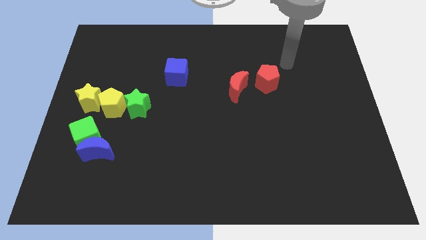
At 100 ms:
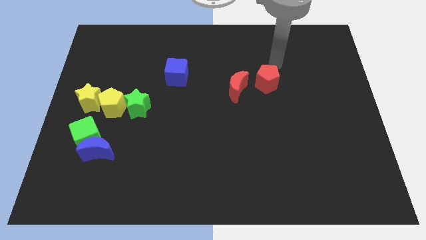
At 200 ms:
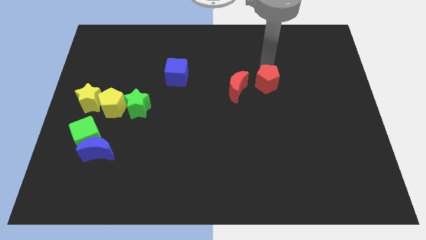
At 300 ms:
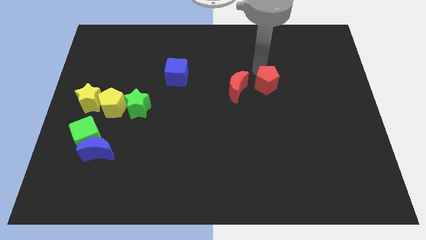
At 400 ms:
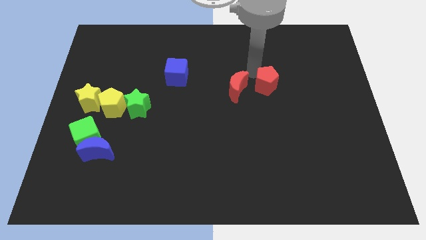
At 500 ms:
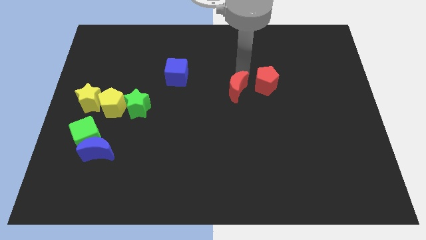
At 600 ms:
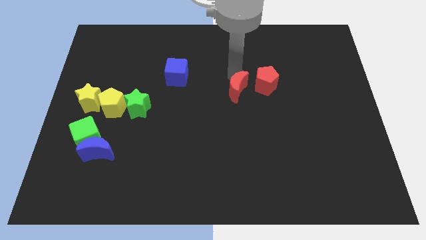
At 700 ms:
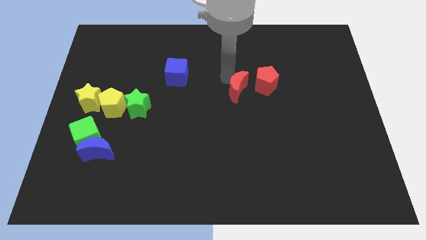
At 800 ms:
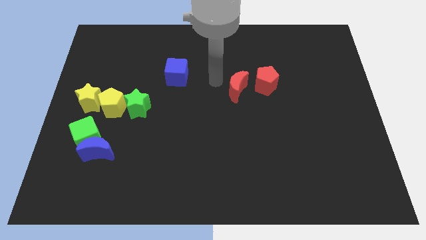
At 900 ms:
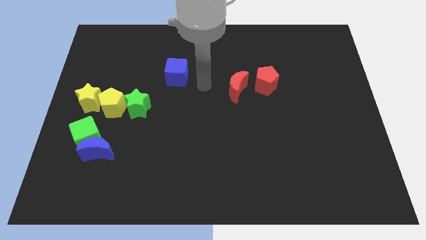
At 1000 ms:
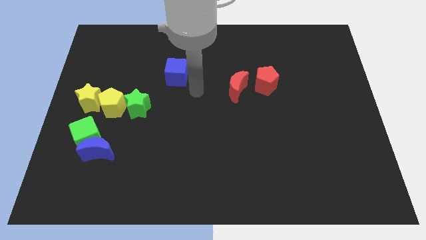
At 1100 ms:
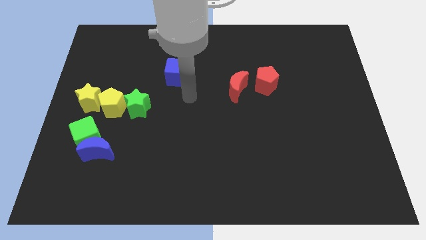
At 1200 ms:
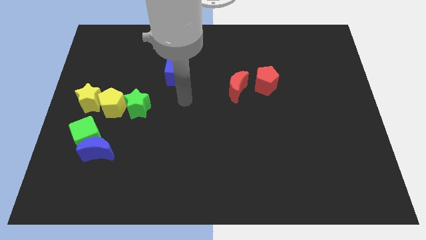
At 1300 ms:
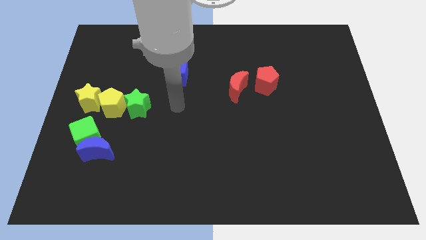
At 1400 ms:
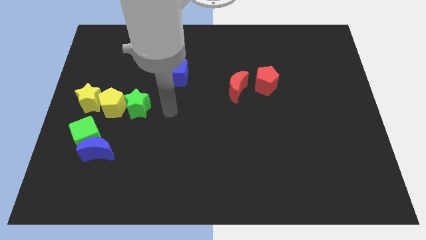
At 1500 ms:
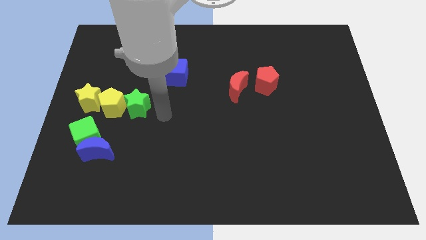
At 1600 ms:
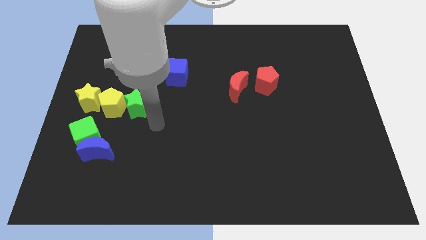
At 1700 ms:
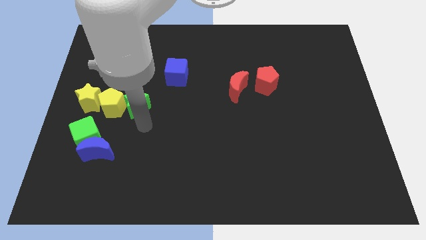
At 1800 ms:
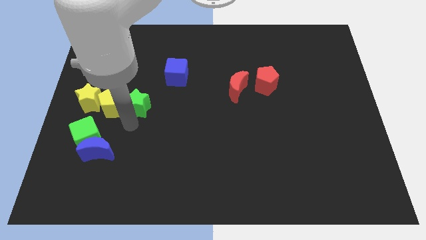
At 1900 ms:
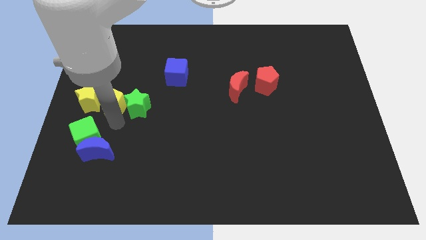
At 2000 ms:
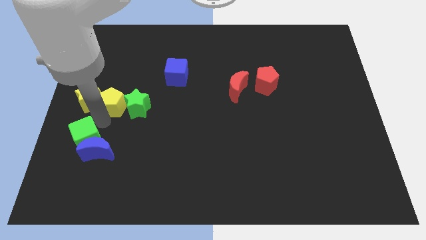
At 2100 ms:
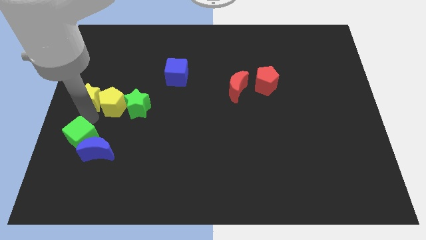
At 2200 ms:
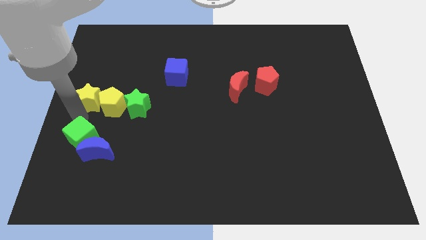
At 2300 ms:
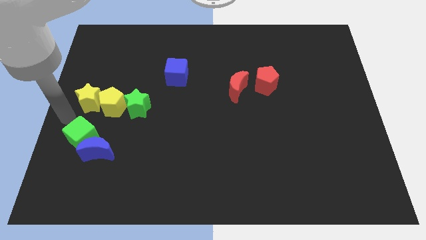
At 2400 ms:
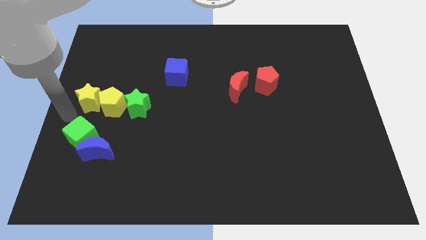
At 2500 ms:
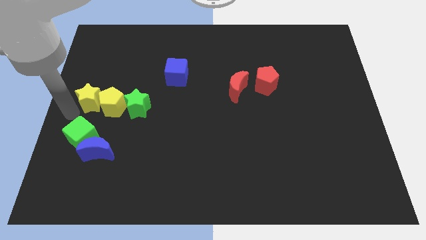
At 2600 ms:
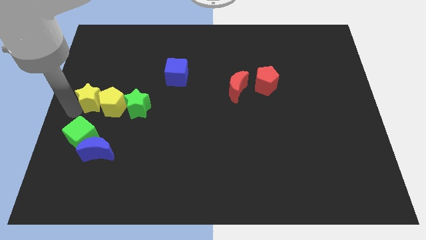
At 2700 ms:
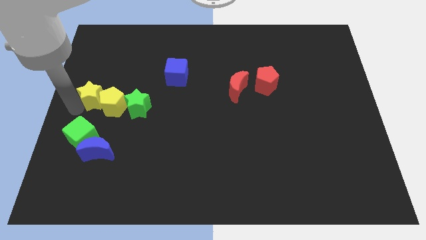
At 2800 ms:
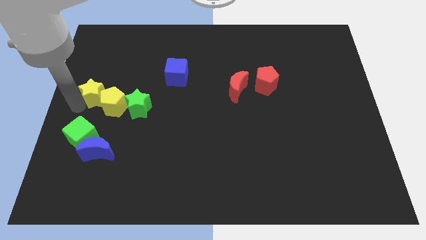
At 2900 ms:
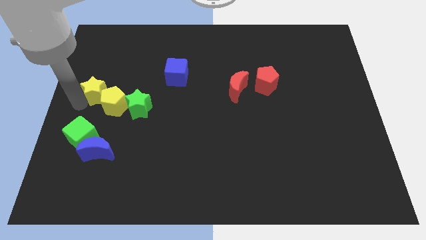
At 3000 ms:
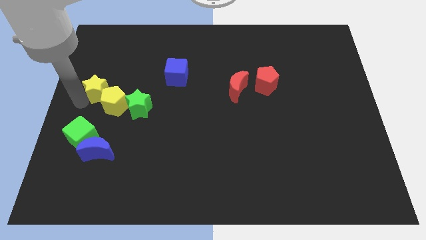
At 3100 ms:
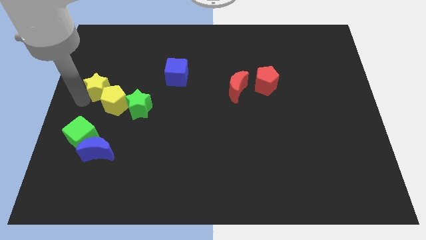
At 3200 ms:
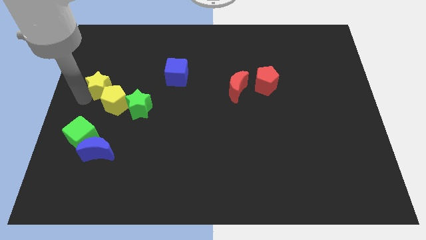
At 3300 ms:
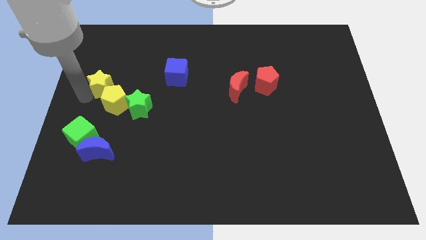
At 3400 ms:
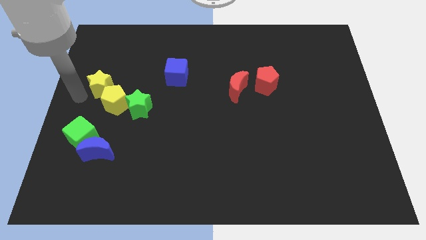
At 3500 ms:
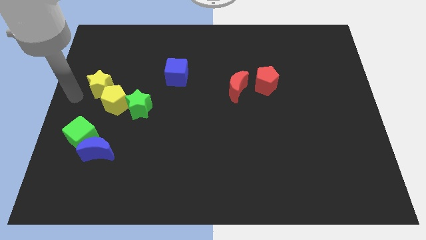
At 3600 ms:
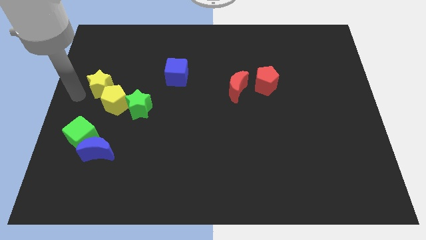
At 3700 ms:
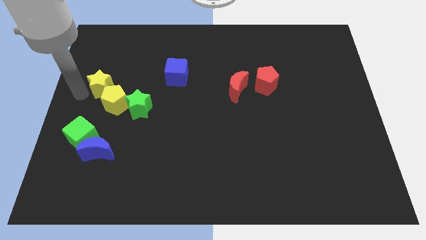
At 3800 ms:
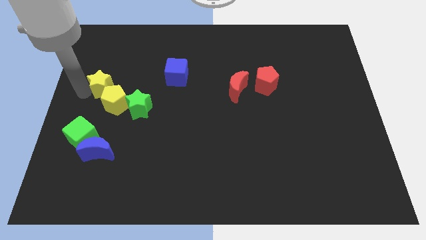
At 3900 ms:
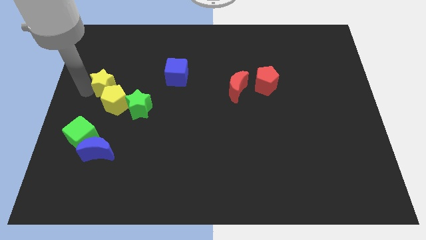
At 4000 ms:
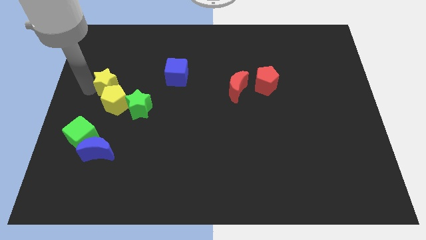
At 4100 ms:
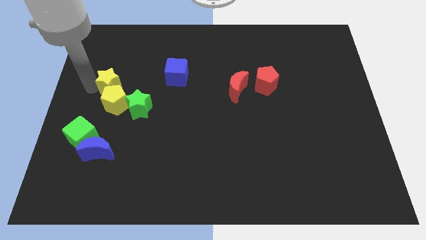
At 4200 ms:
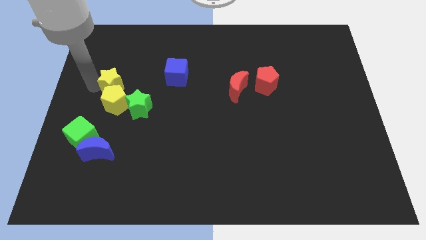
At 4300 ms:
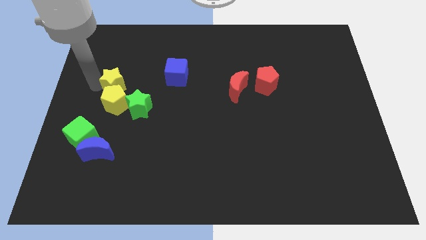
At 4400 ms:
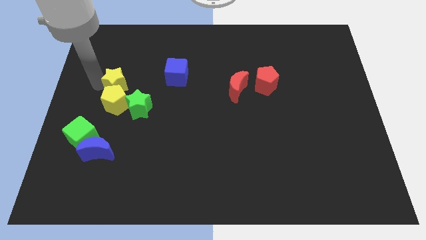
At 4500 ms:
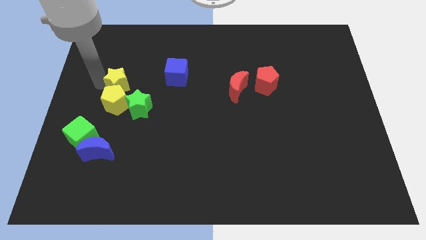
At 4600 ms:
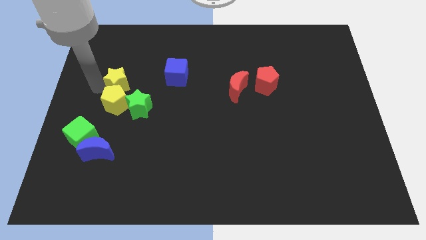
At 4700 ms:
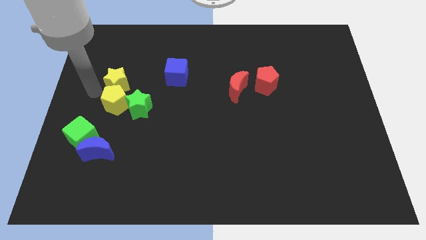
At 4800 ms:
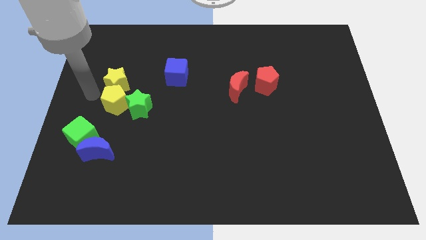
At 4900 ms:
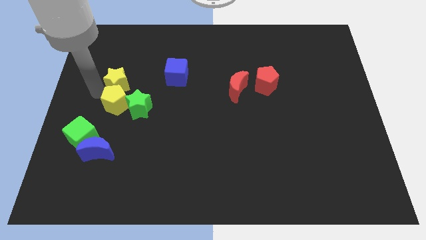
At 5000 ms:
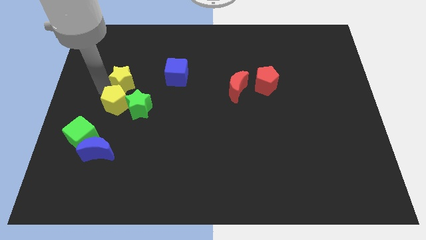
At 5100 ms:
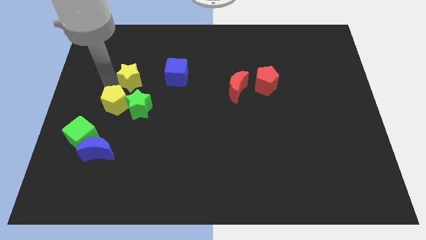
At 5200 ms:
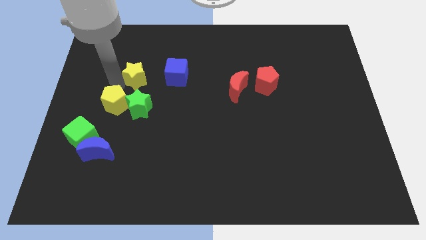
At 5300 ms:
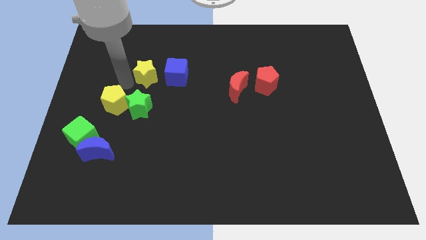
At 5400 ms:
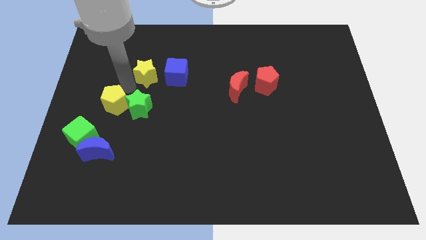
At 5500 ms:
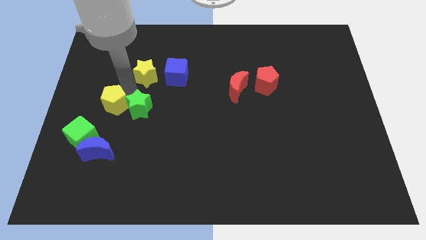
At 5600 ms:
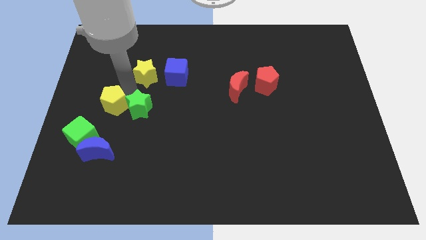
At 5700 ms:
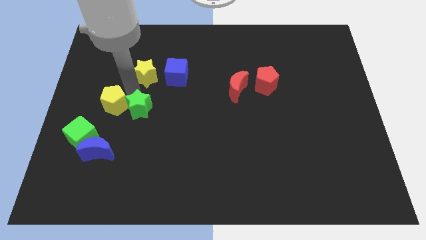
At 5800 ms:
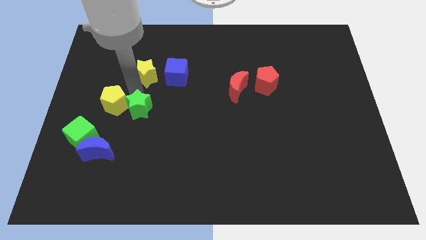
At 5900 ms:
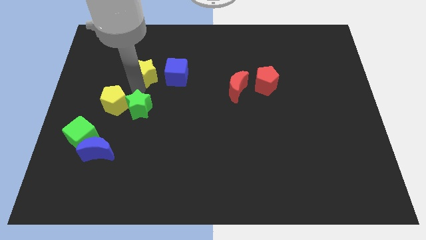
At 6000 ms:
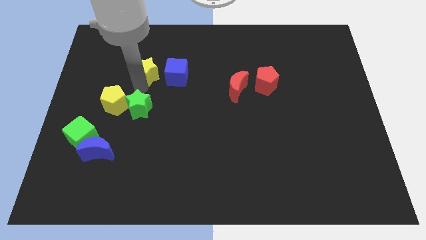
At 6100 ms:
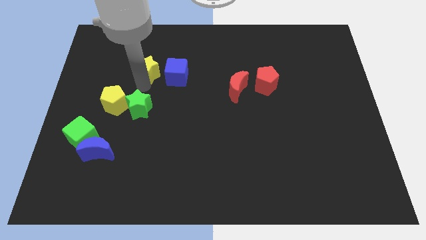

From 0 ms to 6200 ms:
push the yellow star to the top left of the blue cube

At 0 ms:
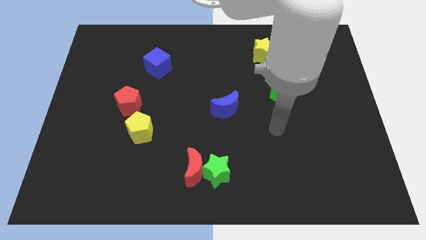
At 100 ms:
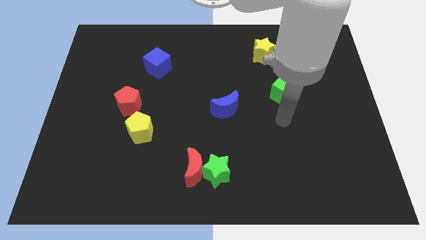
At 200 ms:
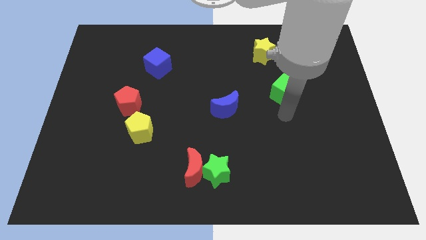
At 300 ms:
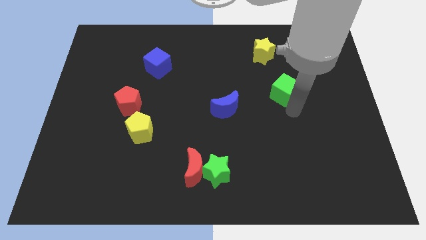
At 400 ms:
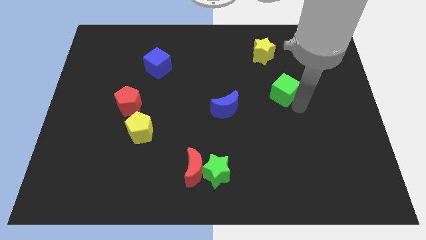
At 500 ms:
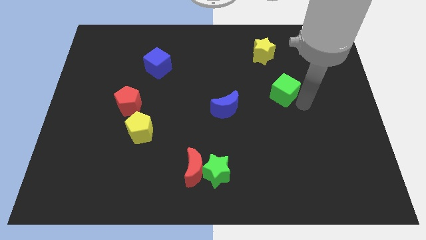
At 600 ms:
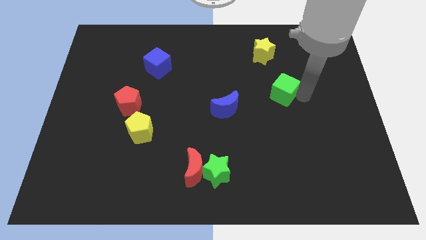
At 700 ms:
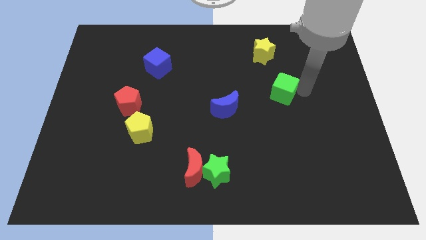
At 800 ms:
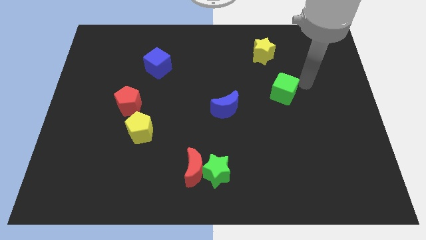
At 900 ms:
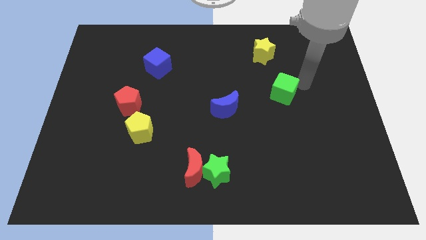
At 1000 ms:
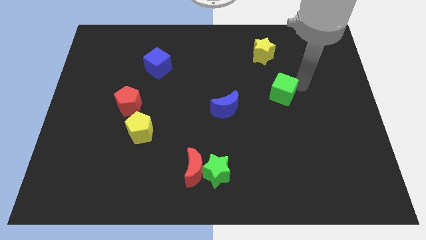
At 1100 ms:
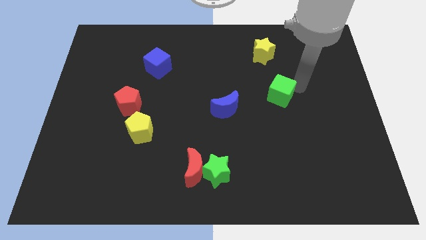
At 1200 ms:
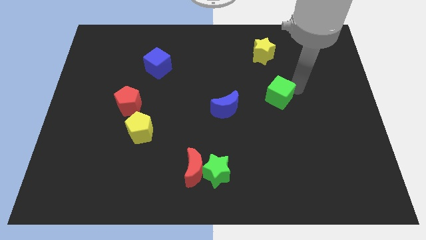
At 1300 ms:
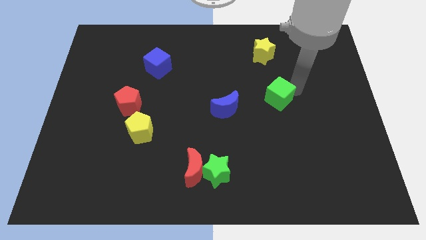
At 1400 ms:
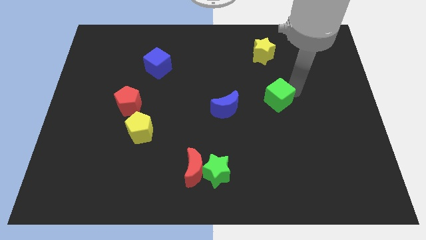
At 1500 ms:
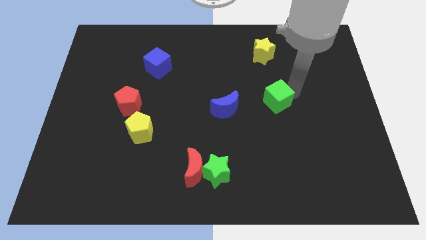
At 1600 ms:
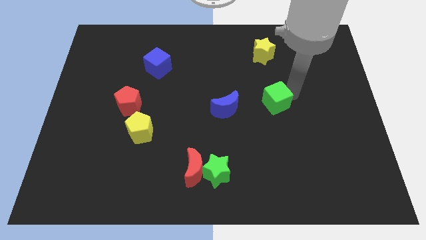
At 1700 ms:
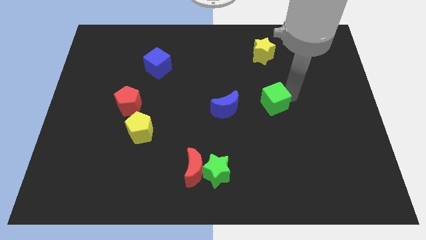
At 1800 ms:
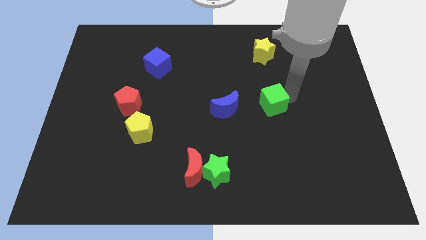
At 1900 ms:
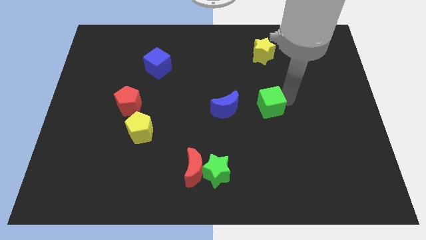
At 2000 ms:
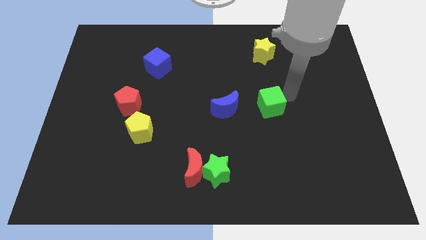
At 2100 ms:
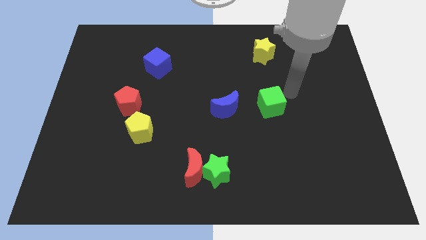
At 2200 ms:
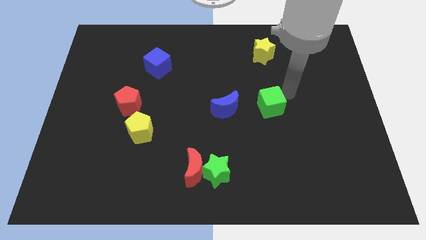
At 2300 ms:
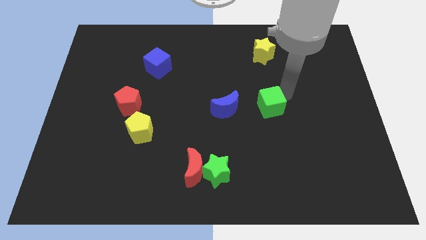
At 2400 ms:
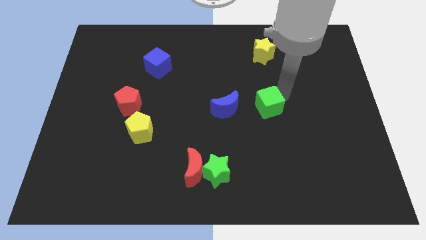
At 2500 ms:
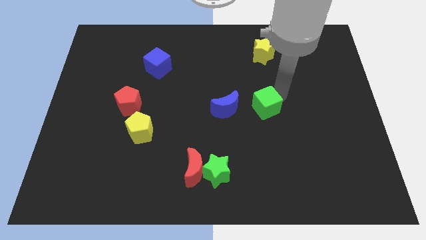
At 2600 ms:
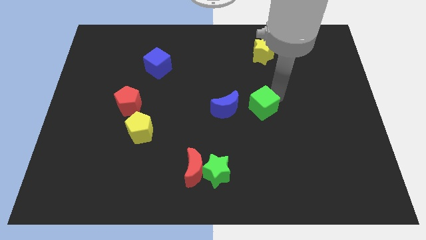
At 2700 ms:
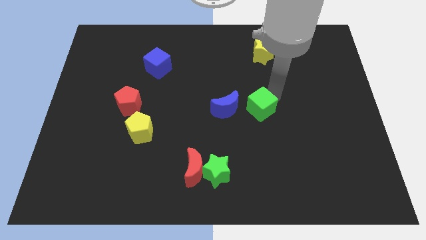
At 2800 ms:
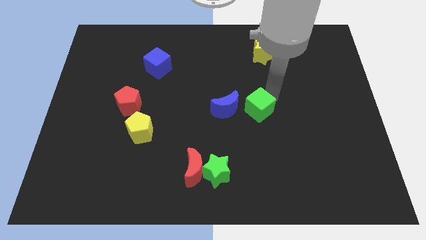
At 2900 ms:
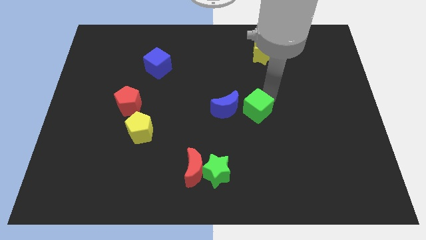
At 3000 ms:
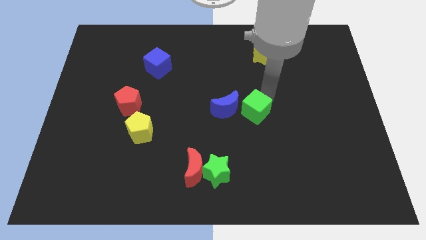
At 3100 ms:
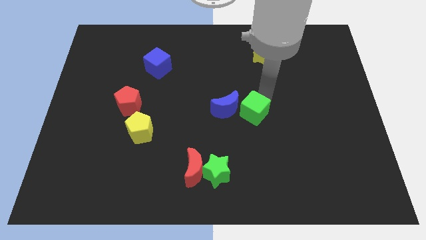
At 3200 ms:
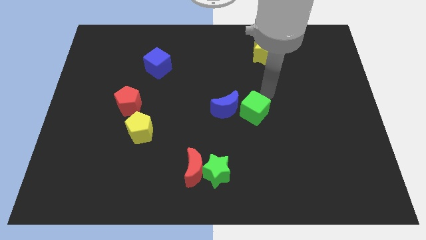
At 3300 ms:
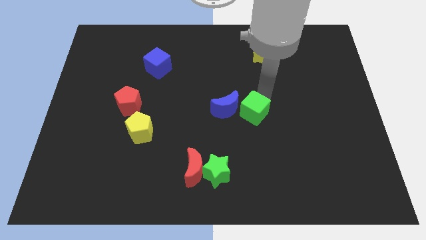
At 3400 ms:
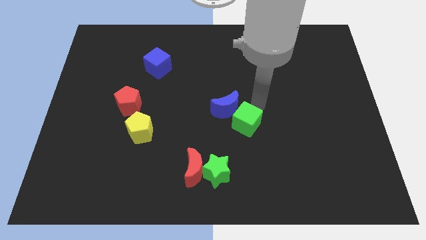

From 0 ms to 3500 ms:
put the green cube to the bottom side of the blue moon
